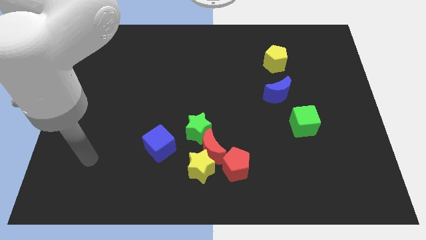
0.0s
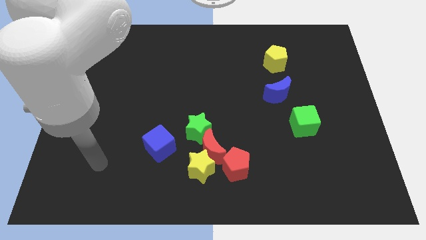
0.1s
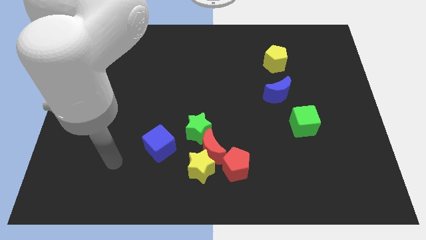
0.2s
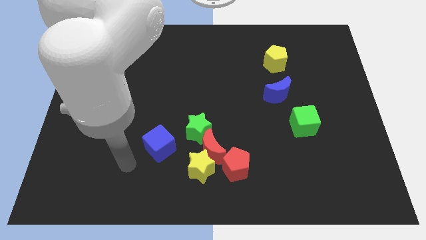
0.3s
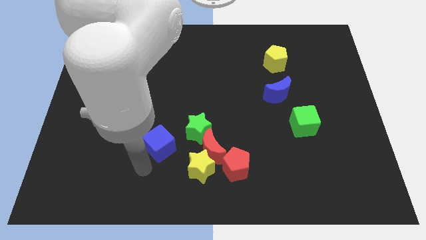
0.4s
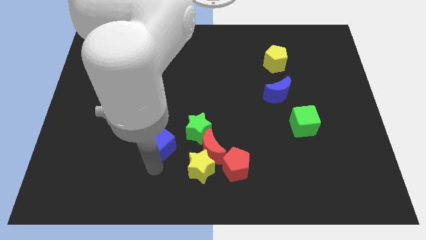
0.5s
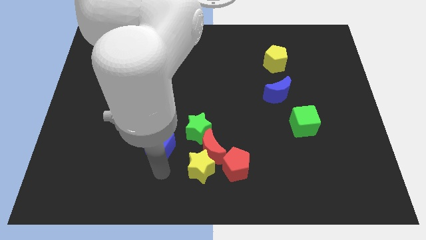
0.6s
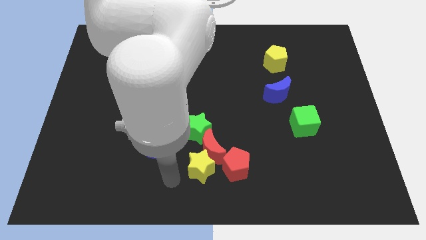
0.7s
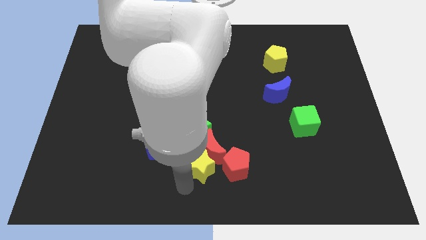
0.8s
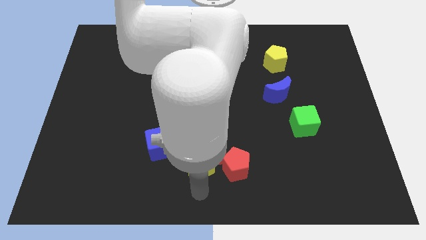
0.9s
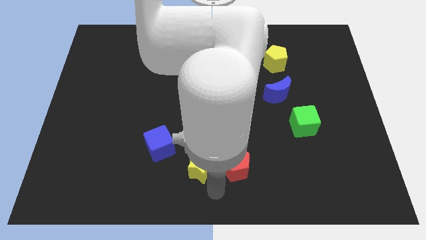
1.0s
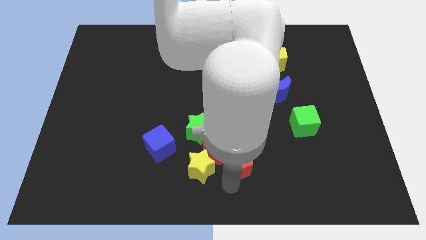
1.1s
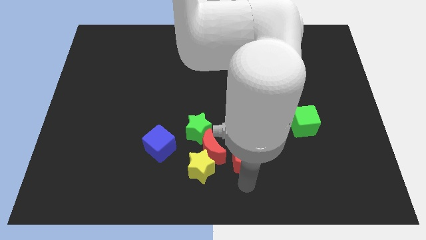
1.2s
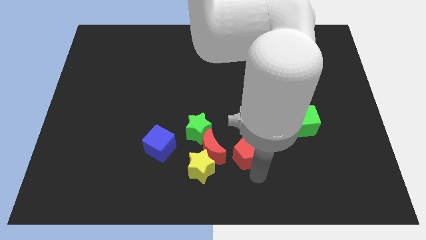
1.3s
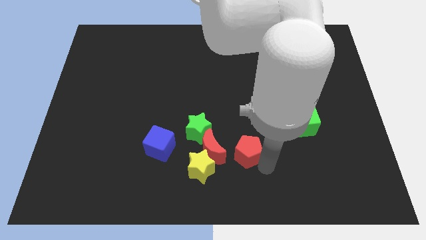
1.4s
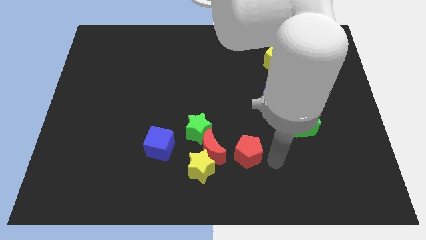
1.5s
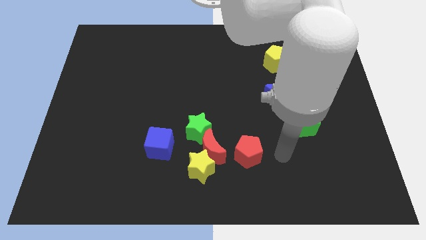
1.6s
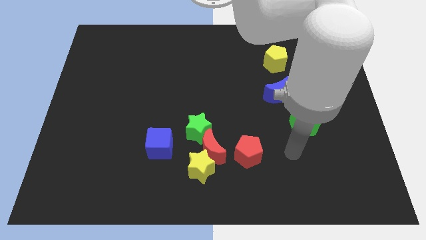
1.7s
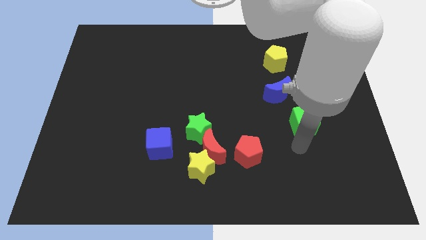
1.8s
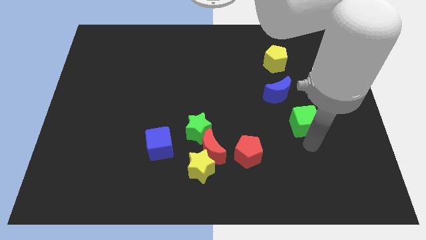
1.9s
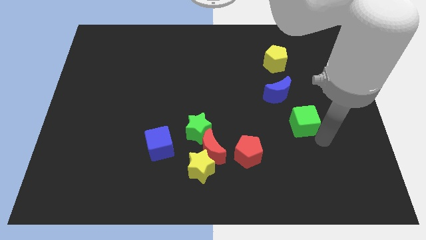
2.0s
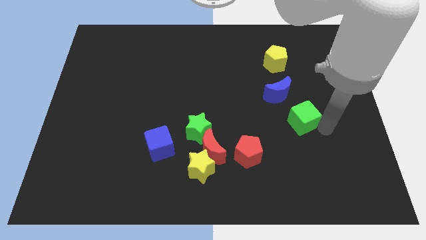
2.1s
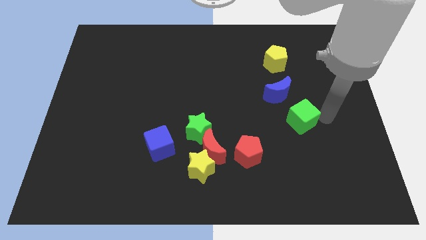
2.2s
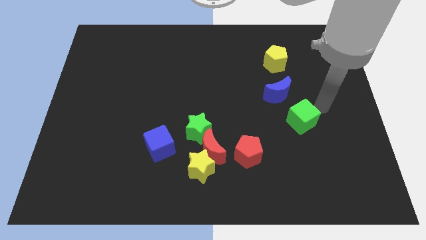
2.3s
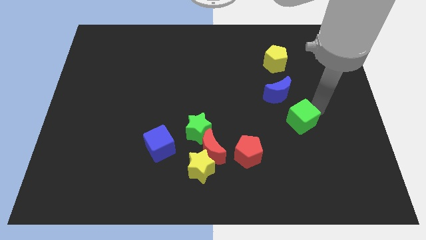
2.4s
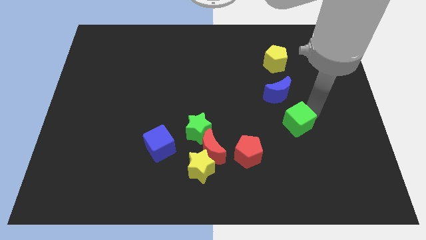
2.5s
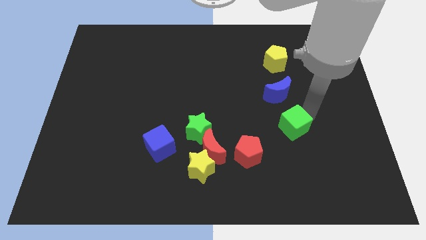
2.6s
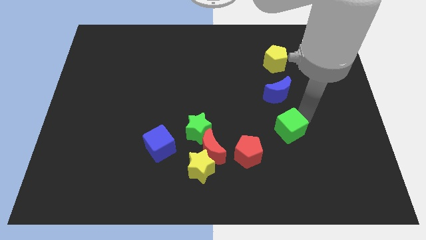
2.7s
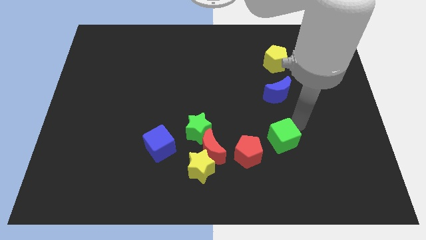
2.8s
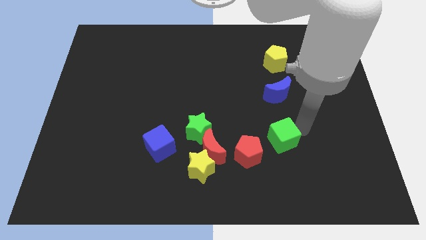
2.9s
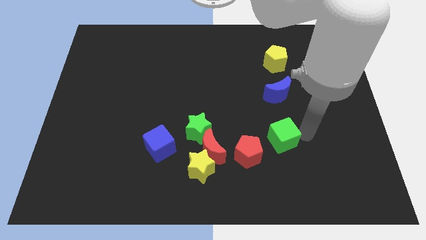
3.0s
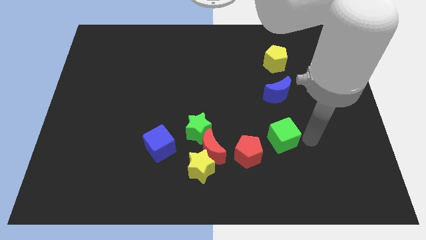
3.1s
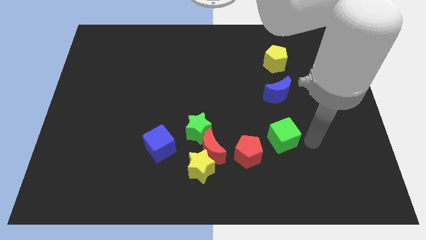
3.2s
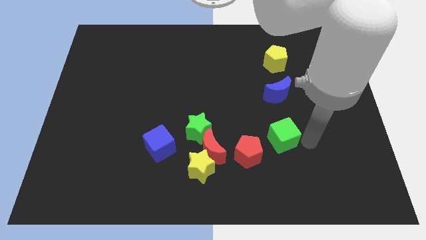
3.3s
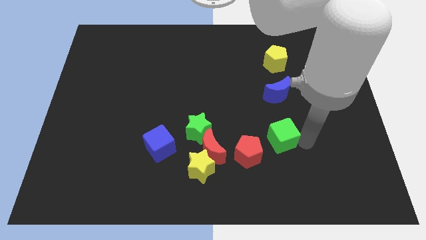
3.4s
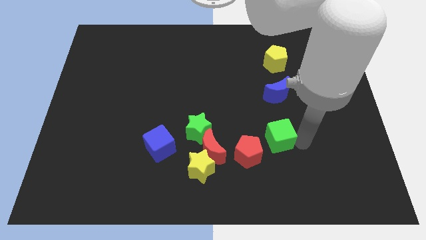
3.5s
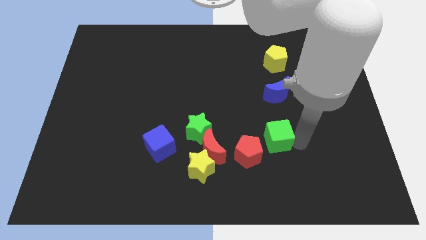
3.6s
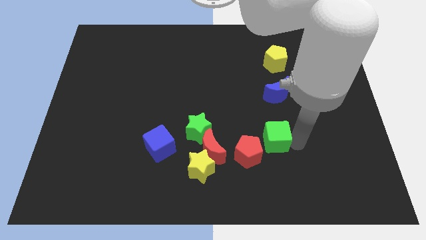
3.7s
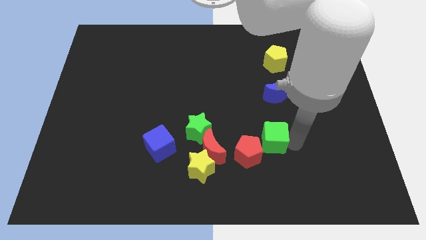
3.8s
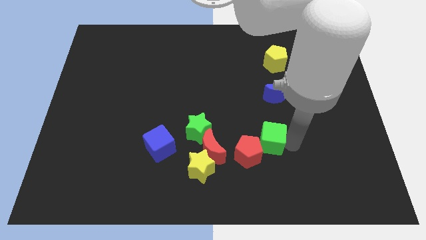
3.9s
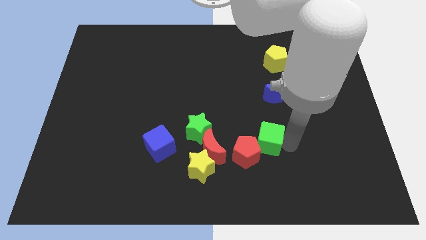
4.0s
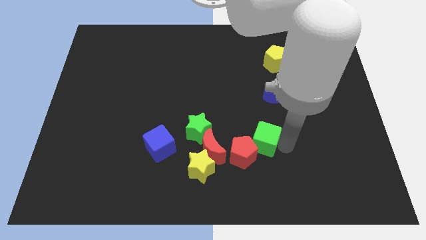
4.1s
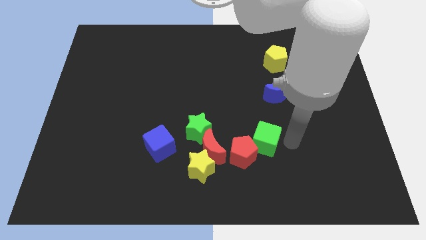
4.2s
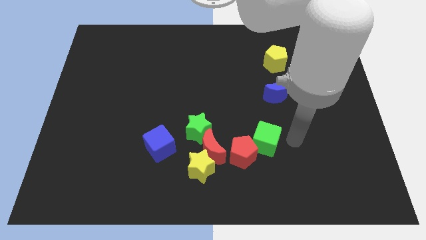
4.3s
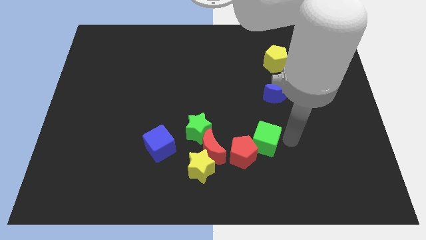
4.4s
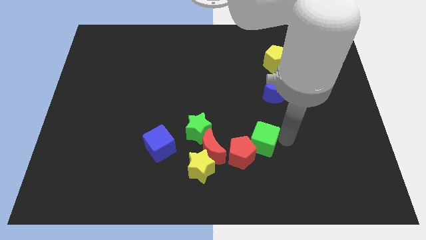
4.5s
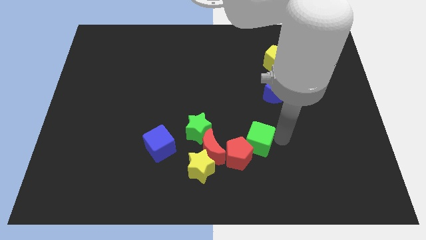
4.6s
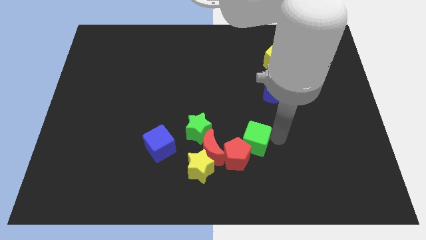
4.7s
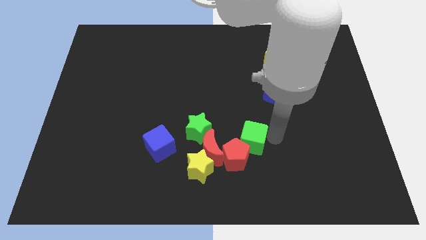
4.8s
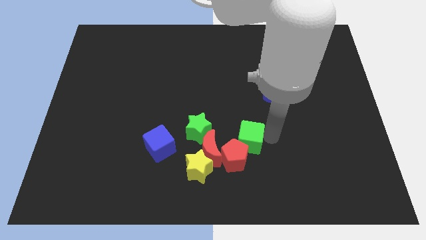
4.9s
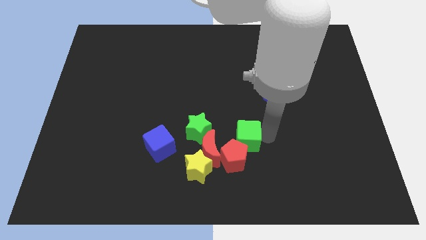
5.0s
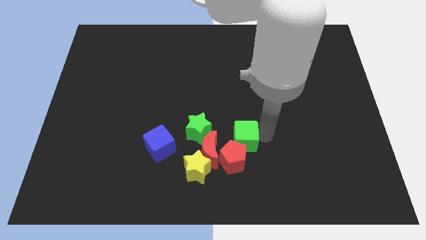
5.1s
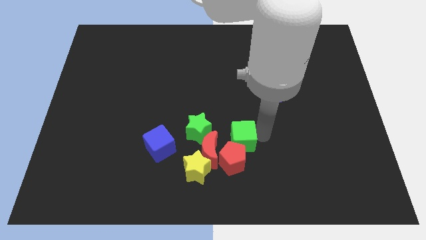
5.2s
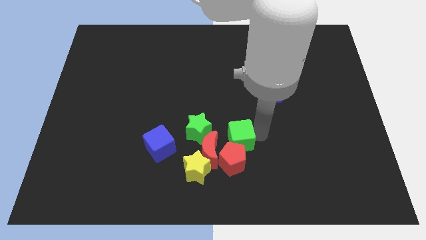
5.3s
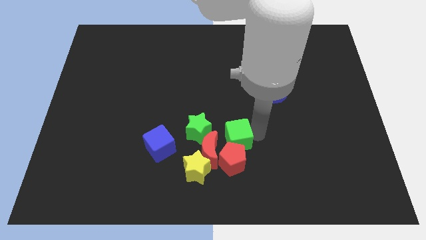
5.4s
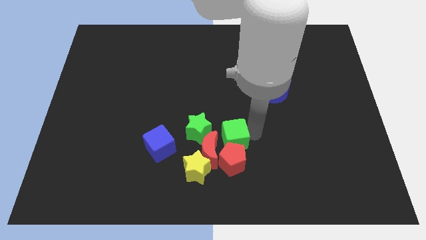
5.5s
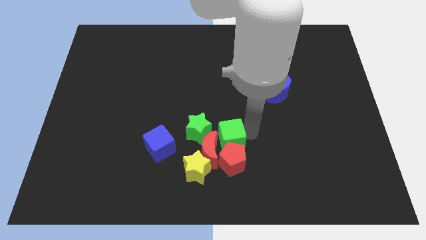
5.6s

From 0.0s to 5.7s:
push the green cube to the red moon

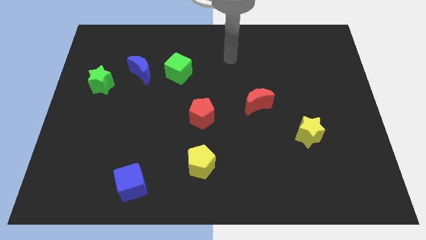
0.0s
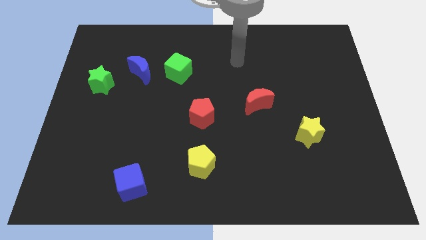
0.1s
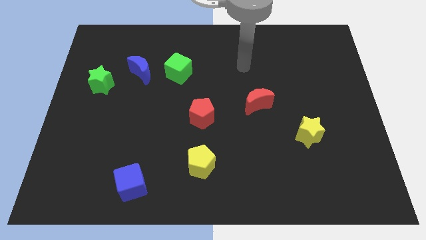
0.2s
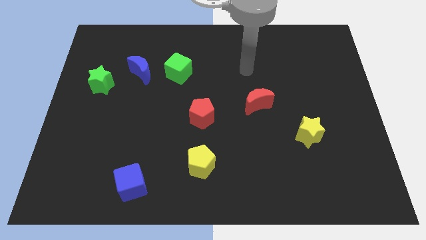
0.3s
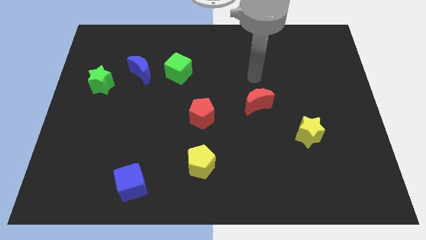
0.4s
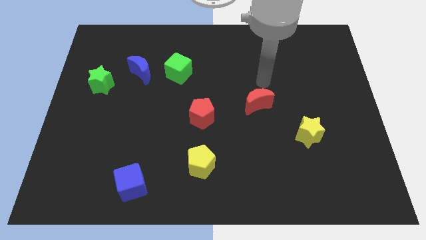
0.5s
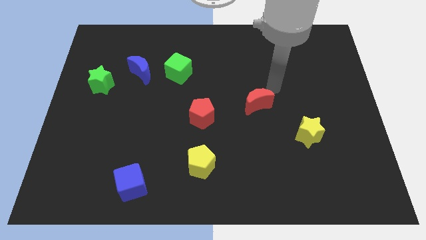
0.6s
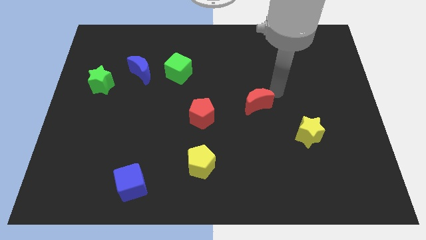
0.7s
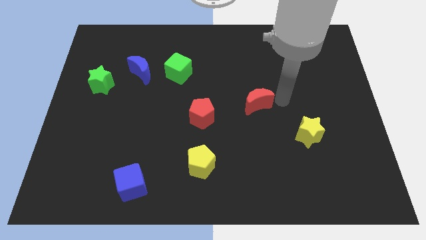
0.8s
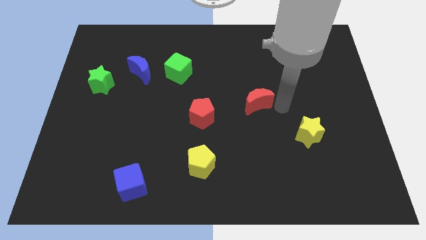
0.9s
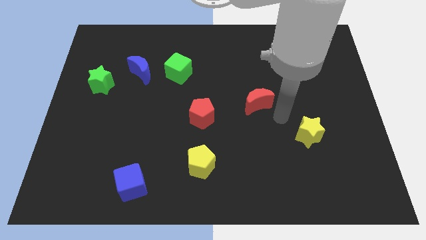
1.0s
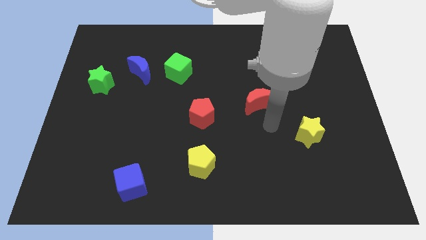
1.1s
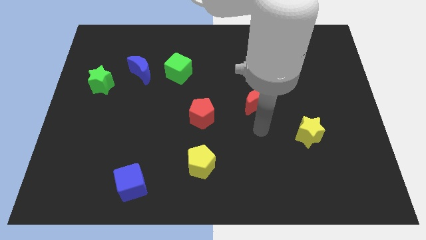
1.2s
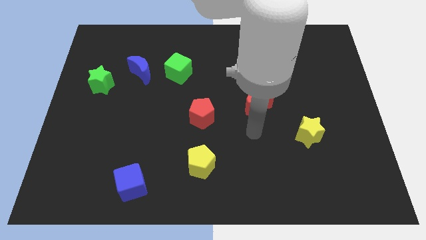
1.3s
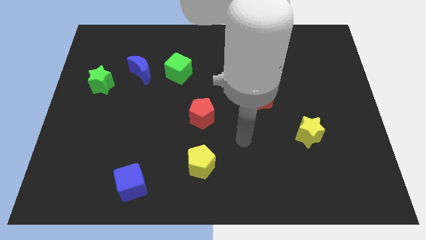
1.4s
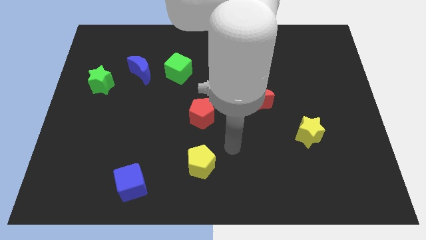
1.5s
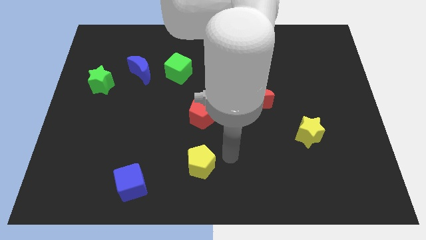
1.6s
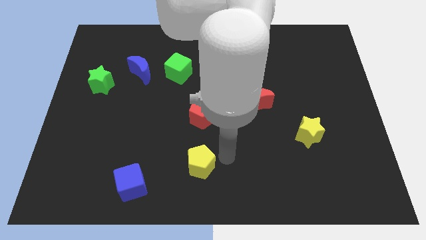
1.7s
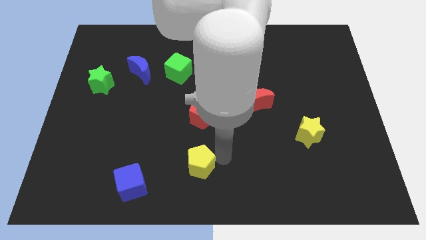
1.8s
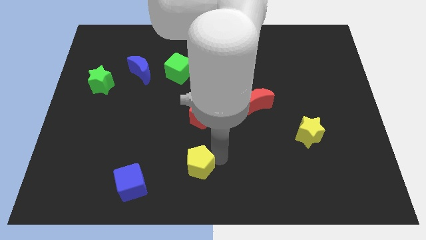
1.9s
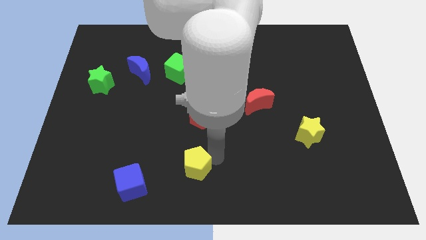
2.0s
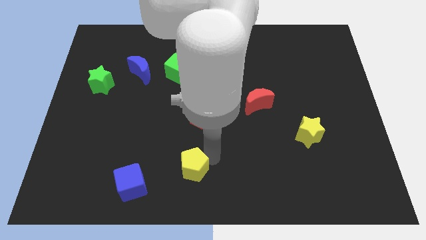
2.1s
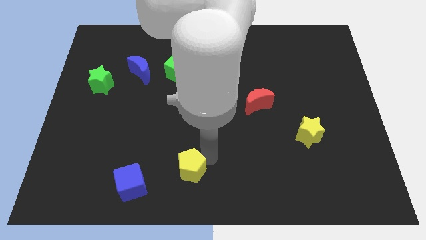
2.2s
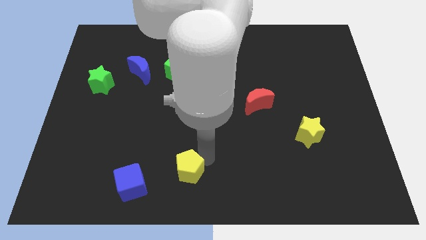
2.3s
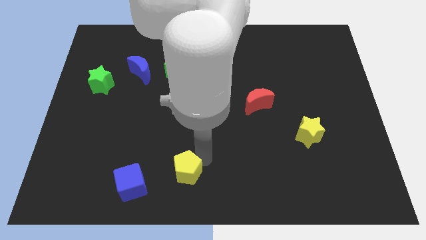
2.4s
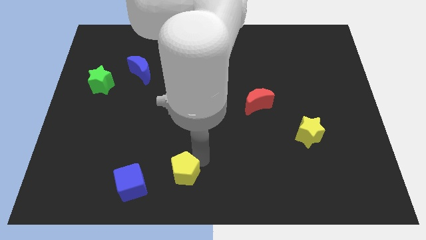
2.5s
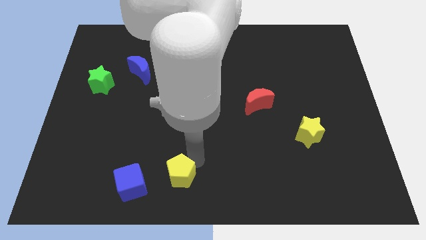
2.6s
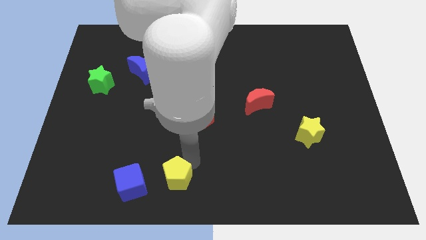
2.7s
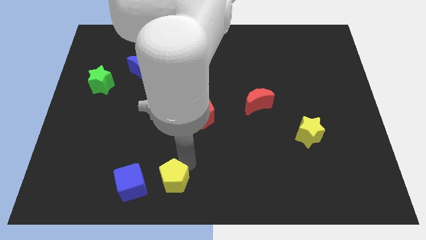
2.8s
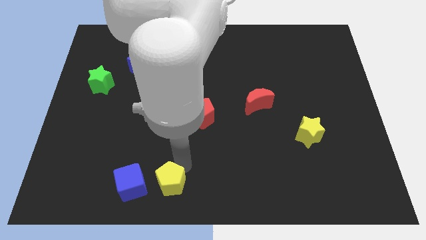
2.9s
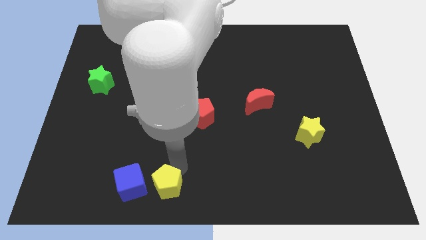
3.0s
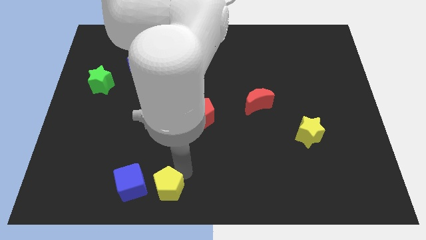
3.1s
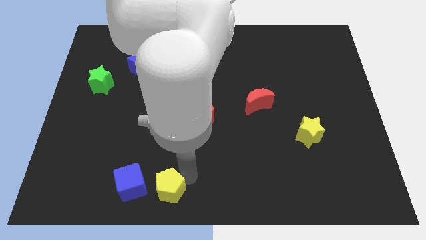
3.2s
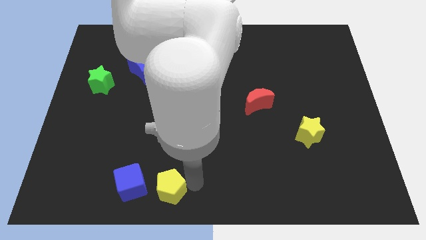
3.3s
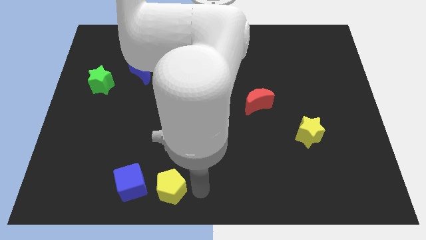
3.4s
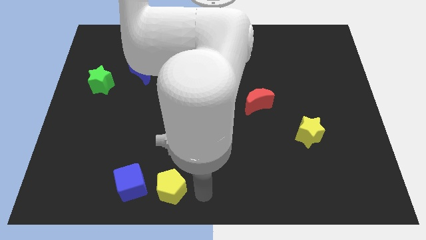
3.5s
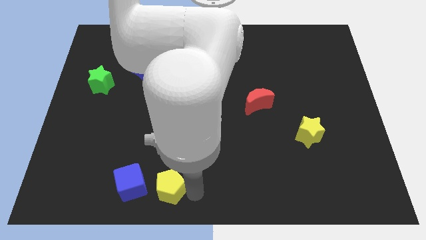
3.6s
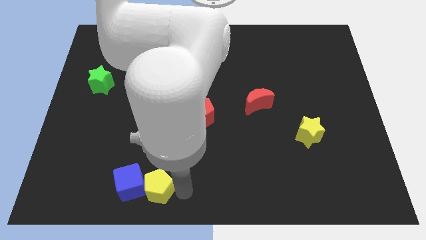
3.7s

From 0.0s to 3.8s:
slide the yellow pentagon next to the blue cube
